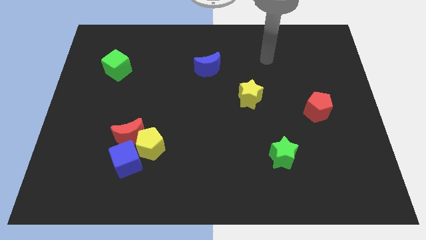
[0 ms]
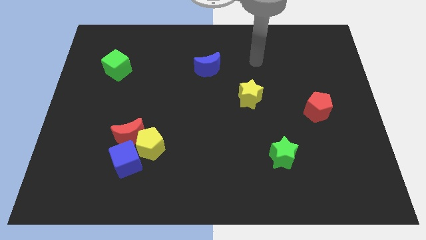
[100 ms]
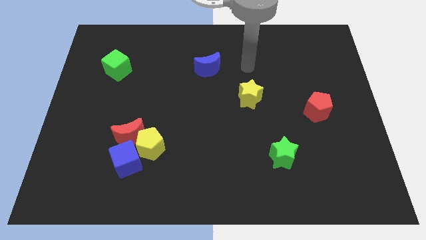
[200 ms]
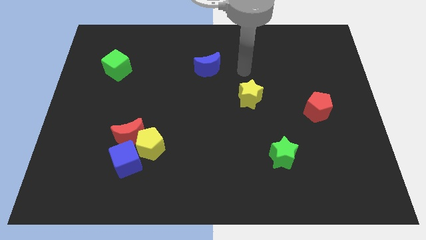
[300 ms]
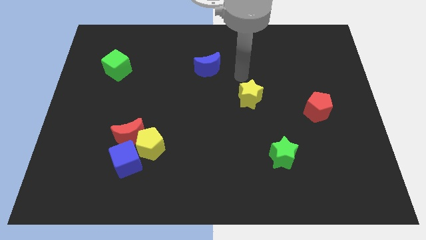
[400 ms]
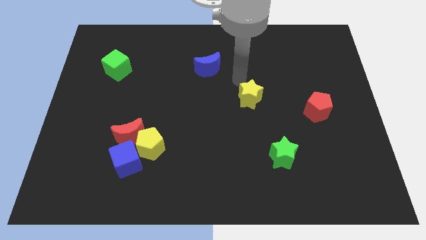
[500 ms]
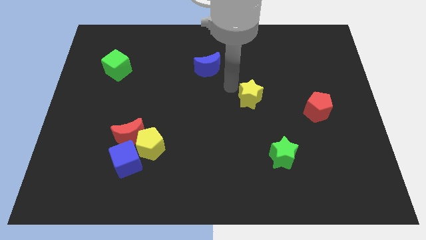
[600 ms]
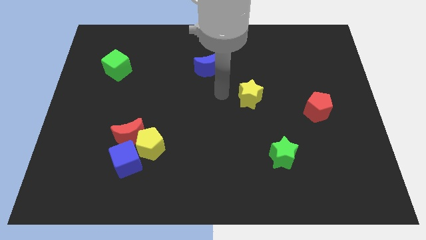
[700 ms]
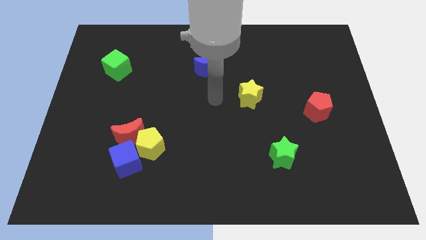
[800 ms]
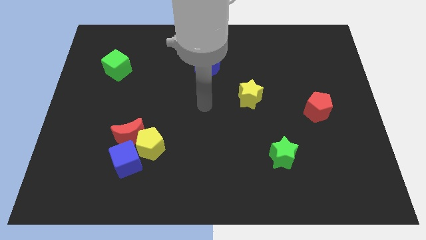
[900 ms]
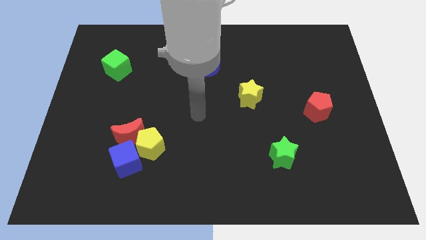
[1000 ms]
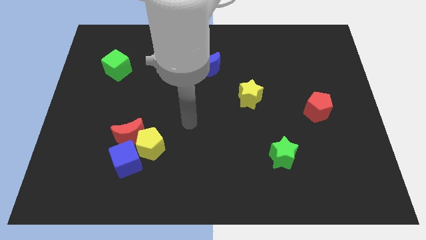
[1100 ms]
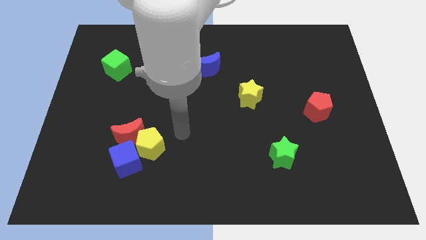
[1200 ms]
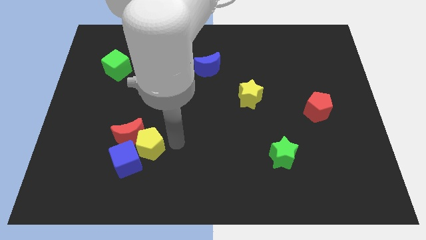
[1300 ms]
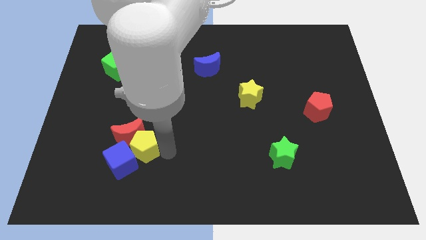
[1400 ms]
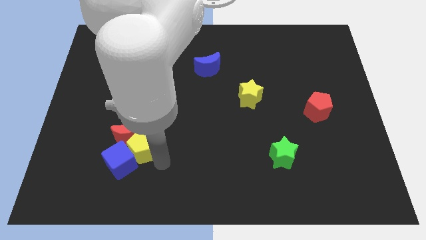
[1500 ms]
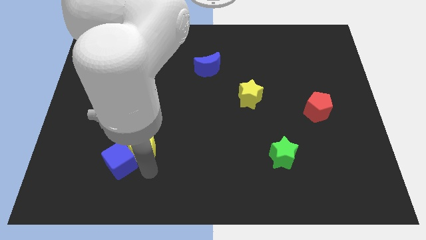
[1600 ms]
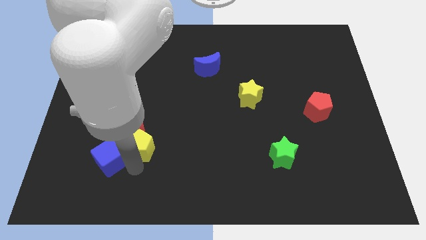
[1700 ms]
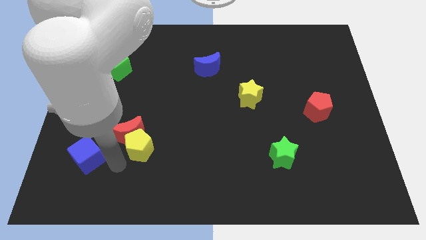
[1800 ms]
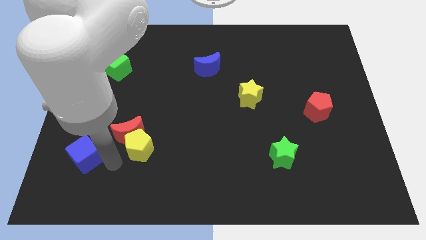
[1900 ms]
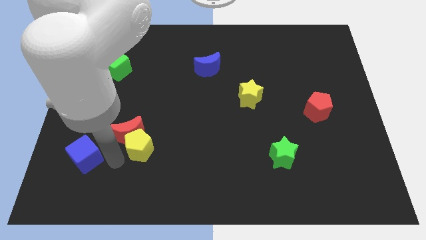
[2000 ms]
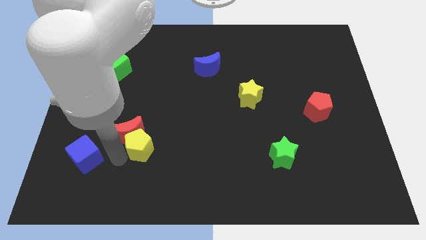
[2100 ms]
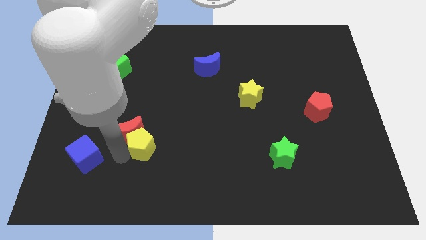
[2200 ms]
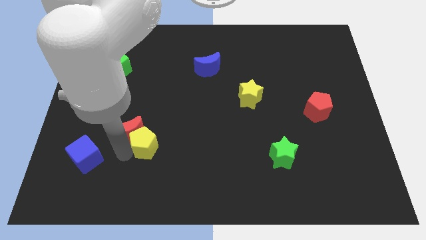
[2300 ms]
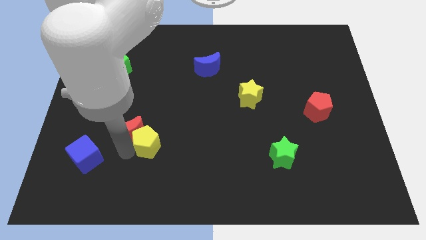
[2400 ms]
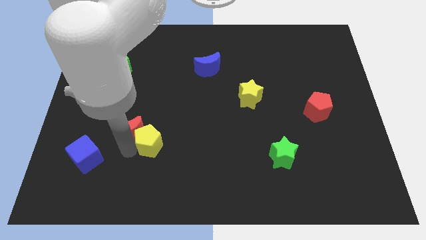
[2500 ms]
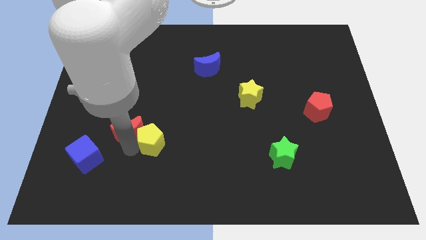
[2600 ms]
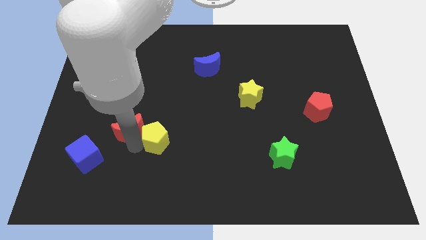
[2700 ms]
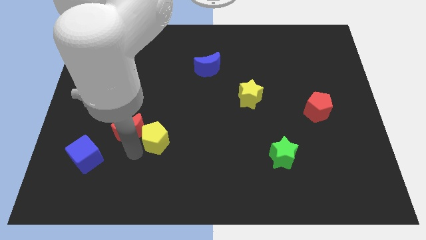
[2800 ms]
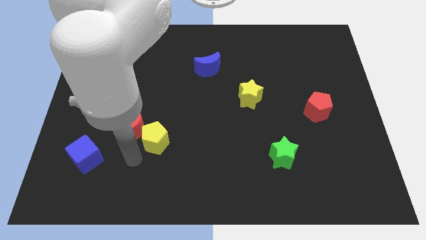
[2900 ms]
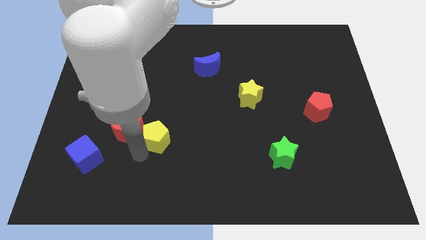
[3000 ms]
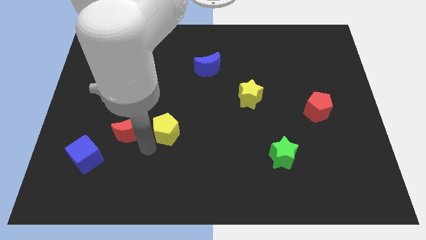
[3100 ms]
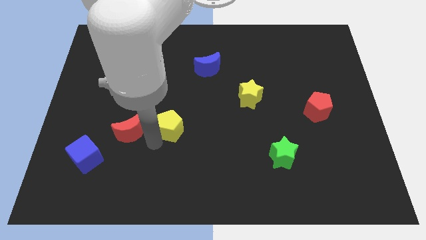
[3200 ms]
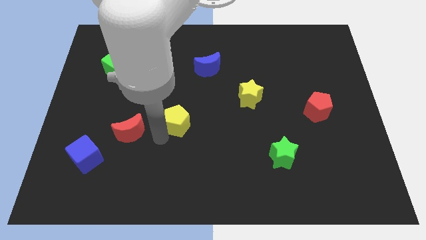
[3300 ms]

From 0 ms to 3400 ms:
slide the yellow pentagon upwards and right a bit

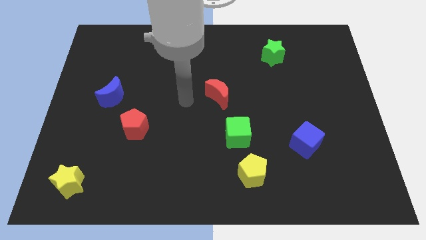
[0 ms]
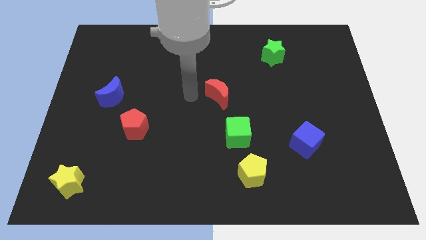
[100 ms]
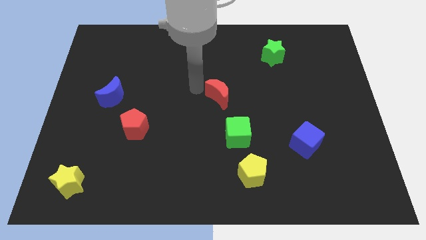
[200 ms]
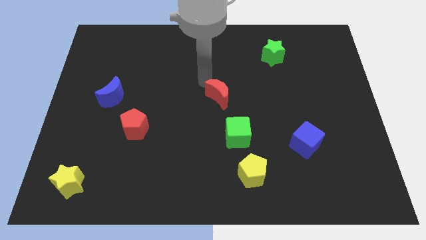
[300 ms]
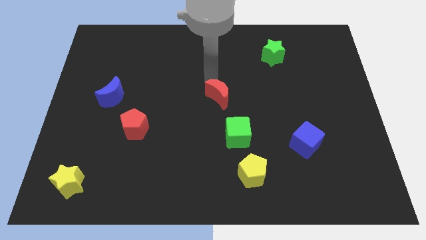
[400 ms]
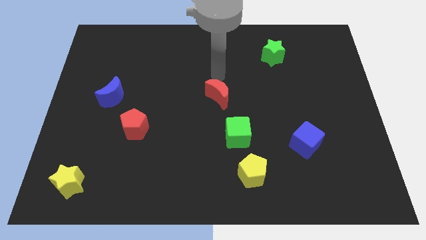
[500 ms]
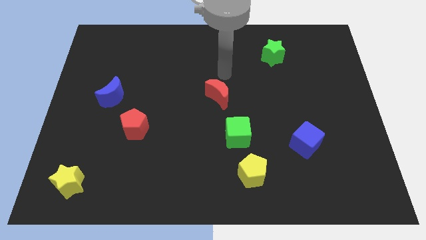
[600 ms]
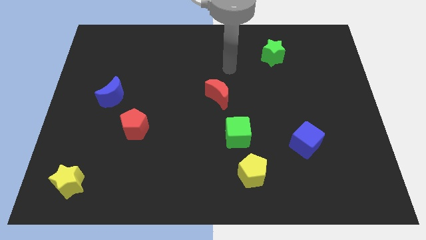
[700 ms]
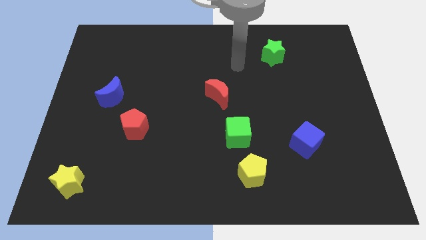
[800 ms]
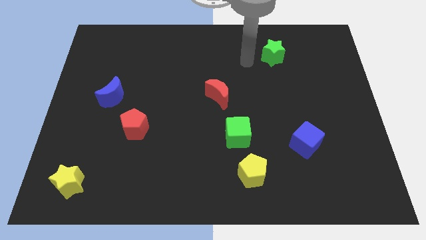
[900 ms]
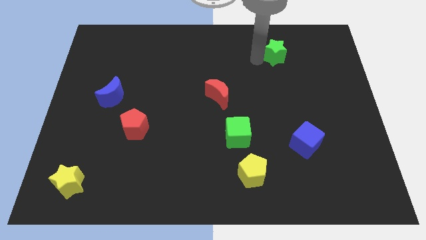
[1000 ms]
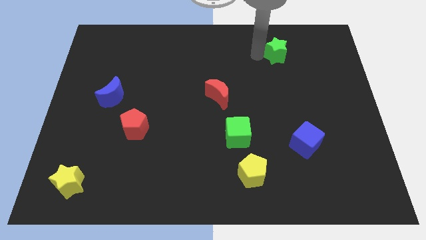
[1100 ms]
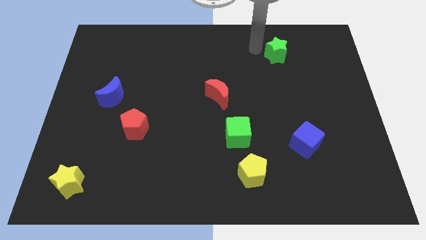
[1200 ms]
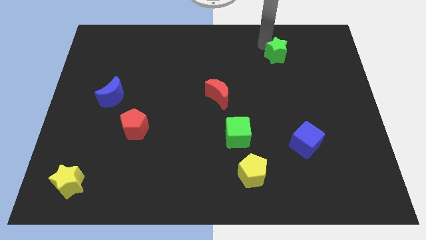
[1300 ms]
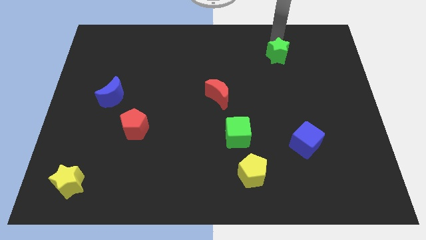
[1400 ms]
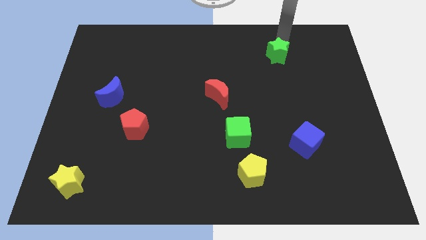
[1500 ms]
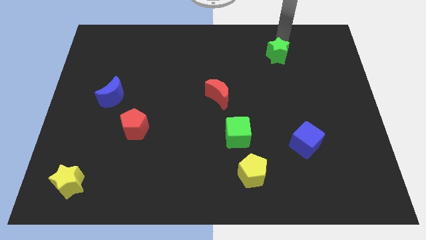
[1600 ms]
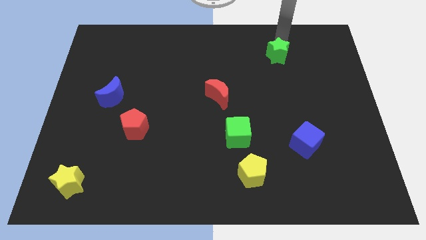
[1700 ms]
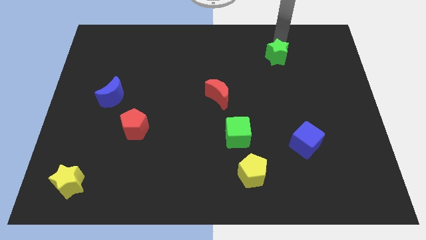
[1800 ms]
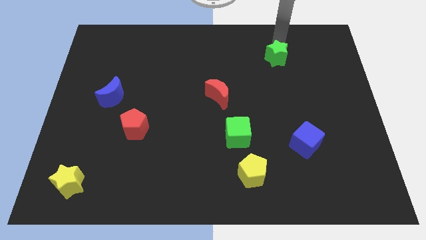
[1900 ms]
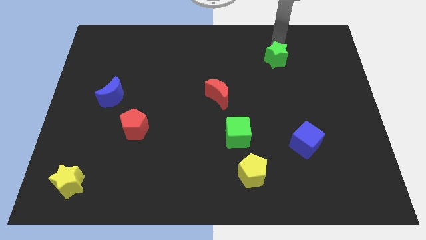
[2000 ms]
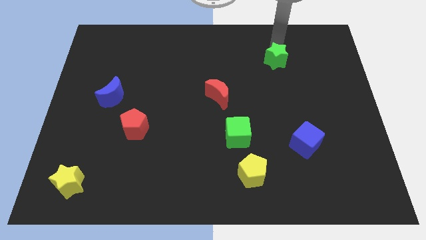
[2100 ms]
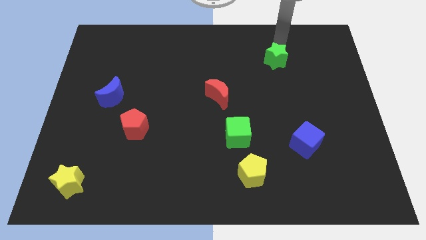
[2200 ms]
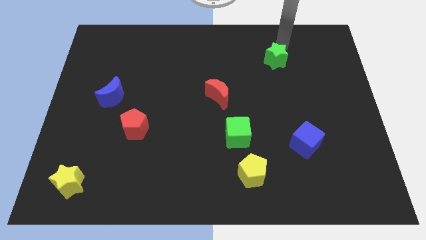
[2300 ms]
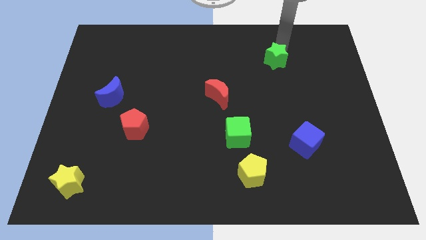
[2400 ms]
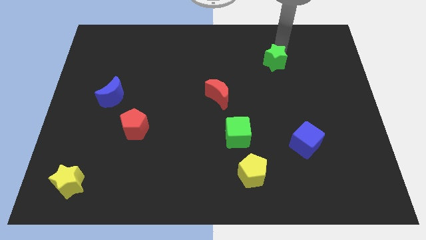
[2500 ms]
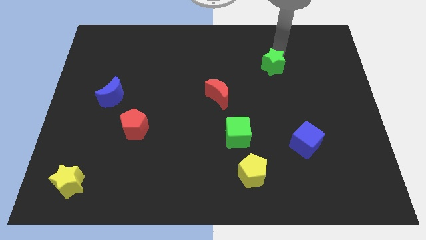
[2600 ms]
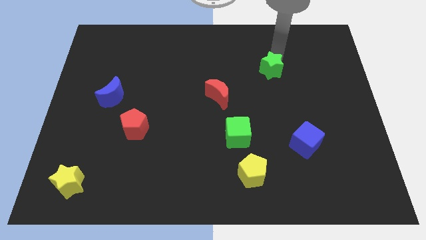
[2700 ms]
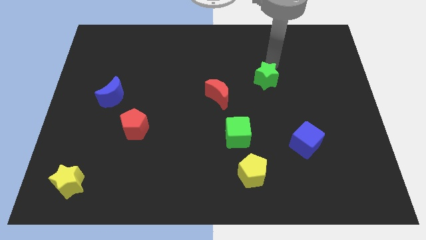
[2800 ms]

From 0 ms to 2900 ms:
slightly push the green star downwards

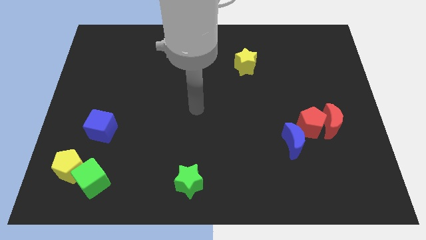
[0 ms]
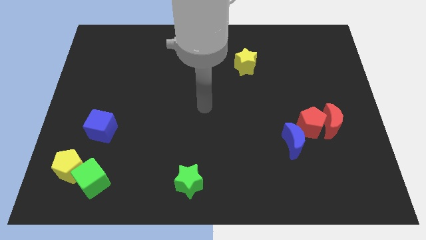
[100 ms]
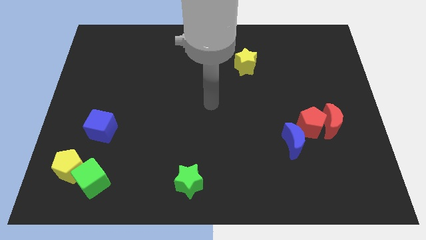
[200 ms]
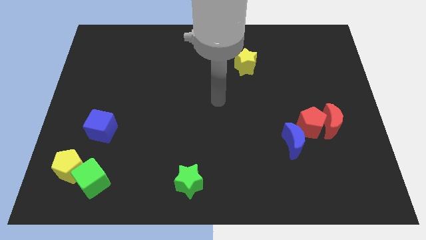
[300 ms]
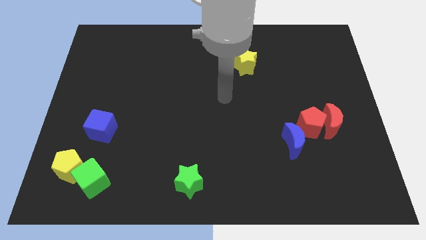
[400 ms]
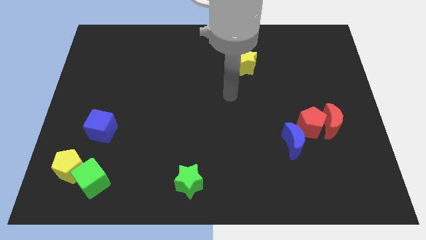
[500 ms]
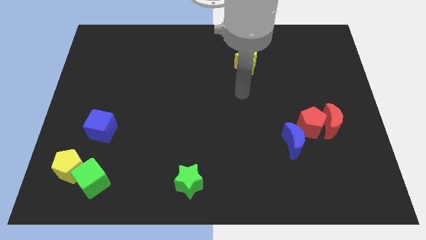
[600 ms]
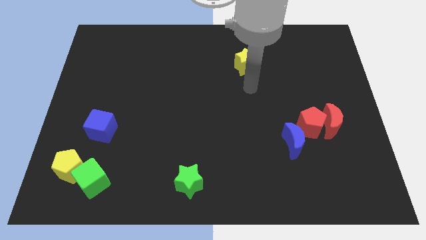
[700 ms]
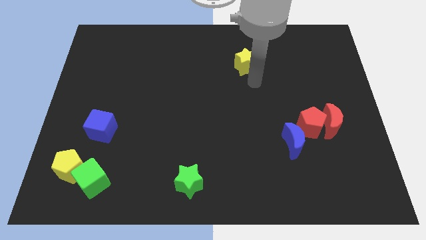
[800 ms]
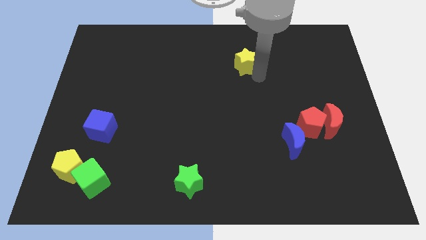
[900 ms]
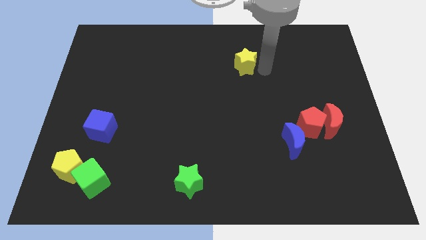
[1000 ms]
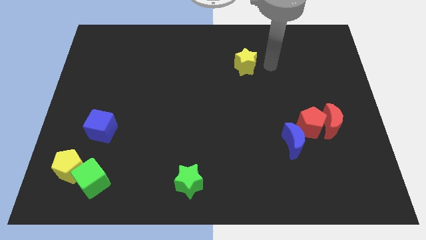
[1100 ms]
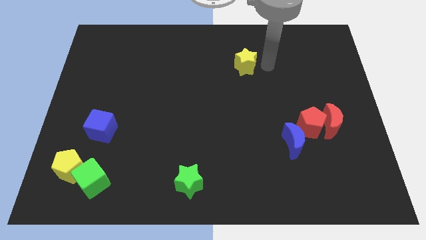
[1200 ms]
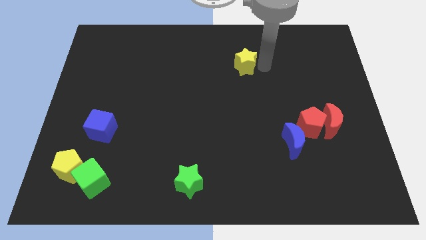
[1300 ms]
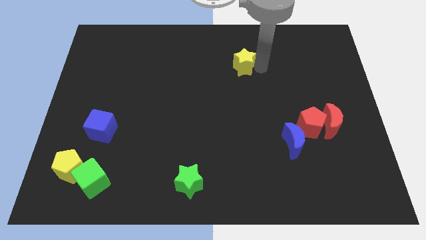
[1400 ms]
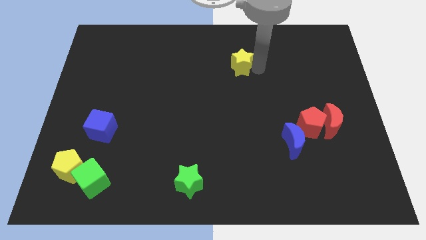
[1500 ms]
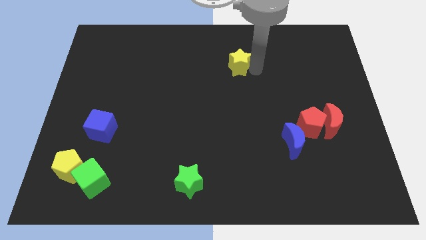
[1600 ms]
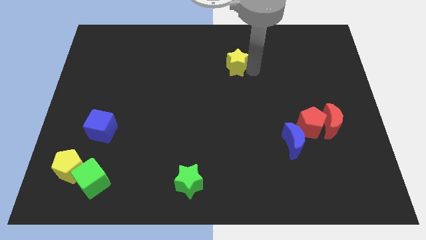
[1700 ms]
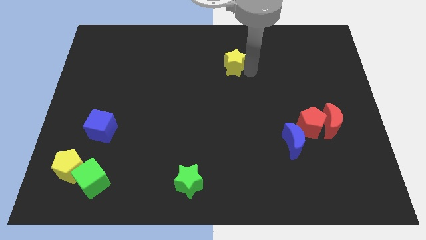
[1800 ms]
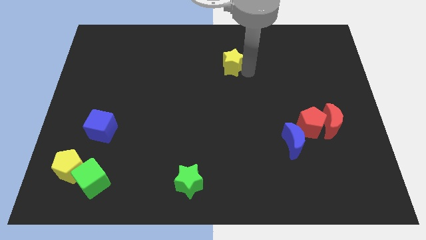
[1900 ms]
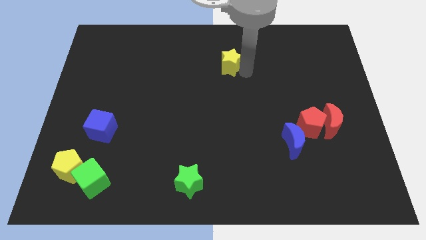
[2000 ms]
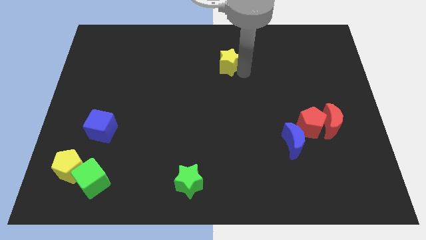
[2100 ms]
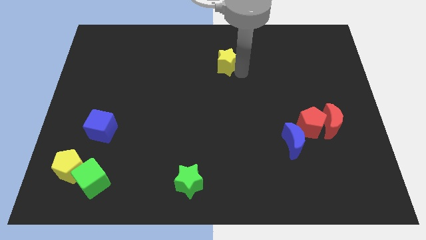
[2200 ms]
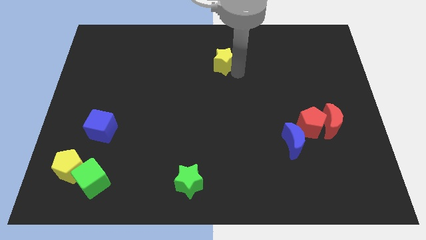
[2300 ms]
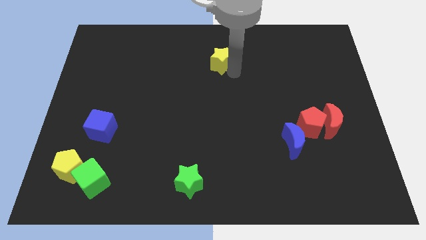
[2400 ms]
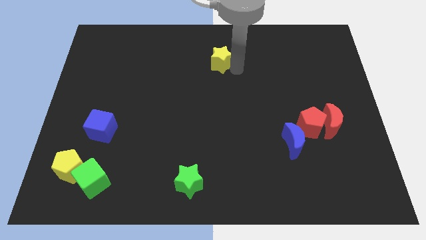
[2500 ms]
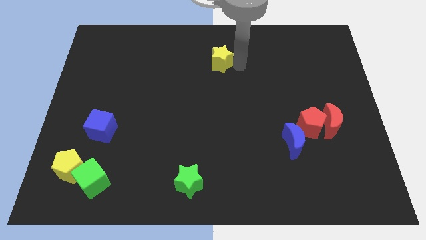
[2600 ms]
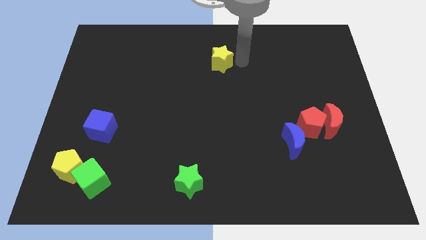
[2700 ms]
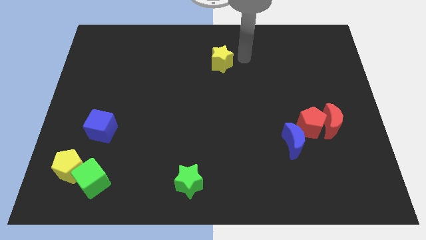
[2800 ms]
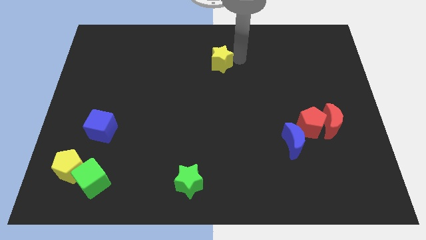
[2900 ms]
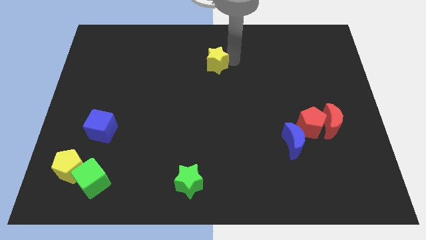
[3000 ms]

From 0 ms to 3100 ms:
slide the yellow star somewhat to the left
